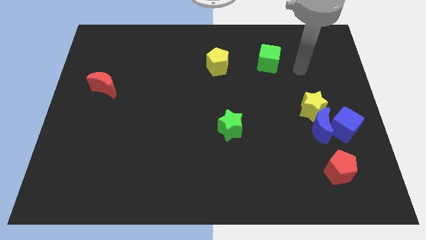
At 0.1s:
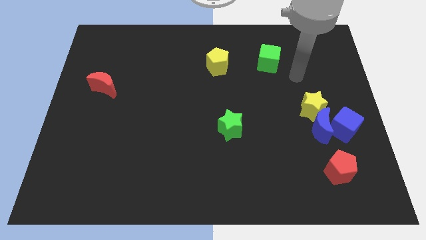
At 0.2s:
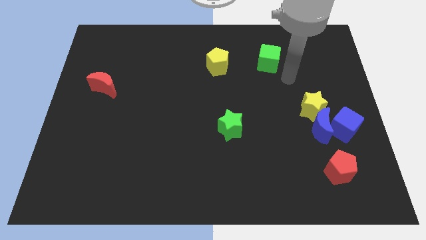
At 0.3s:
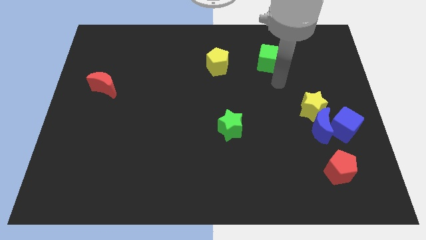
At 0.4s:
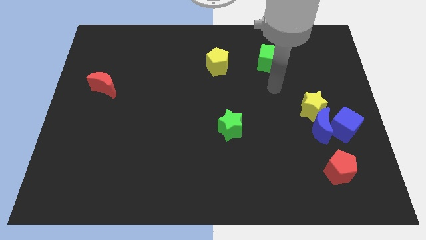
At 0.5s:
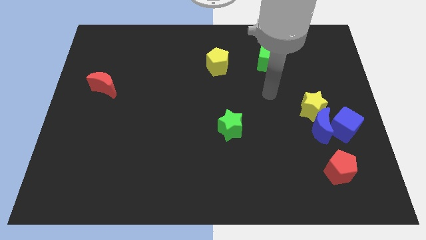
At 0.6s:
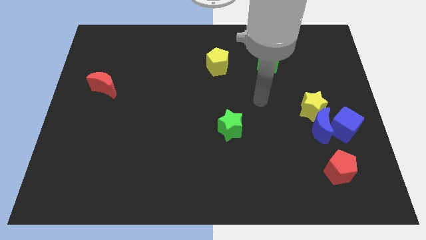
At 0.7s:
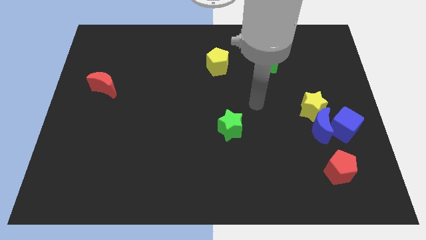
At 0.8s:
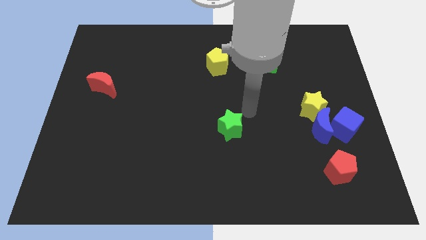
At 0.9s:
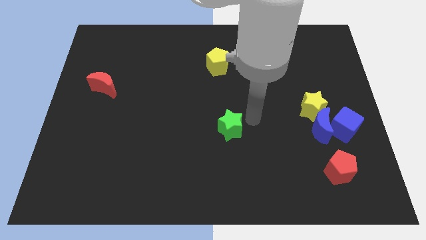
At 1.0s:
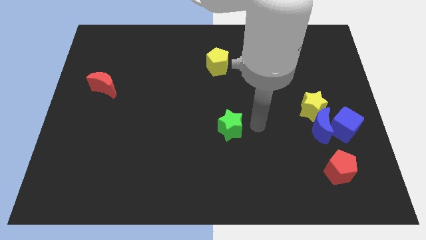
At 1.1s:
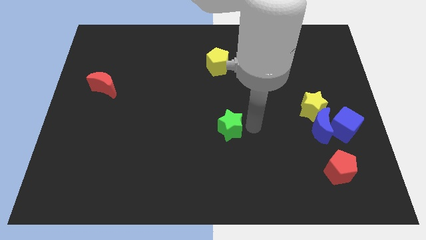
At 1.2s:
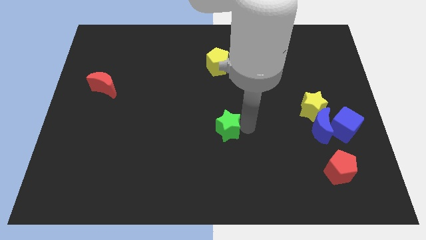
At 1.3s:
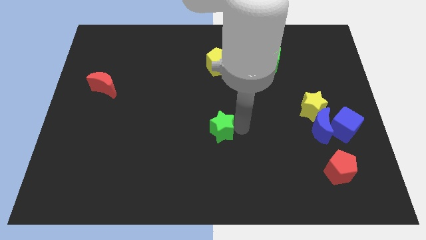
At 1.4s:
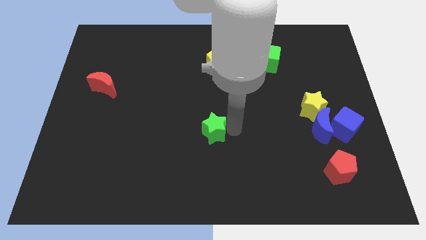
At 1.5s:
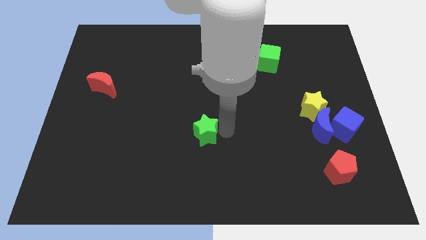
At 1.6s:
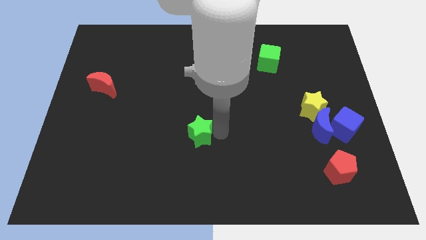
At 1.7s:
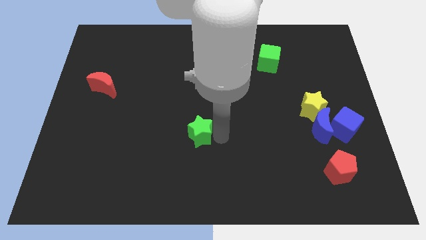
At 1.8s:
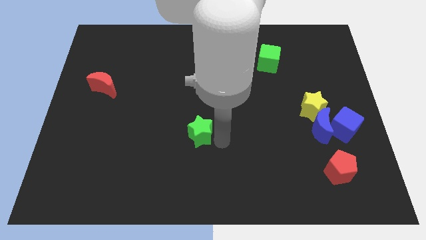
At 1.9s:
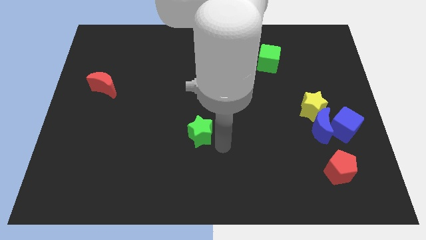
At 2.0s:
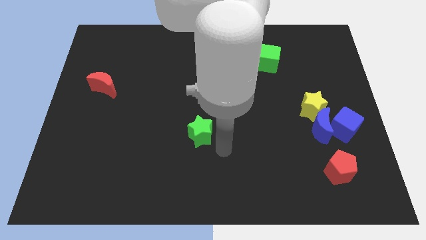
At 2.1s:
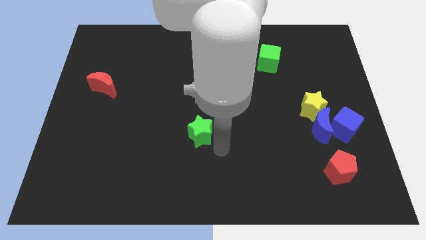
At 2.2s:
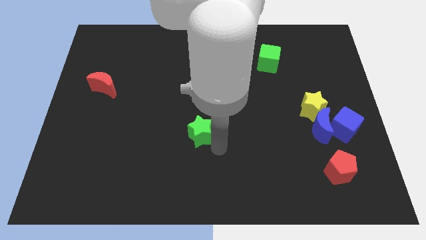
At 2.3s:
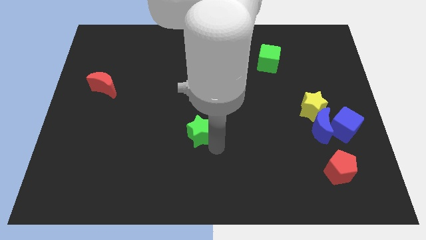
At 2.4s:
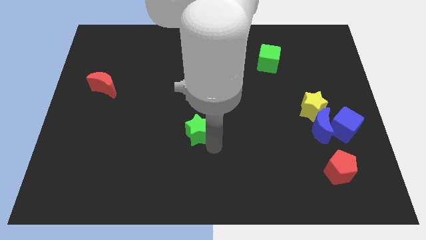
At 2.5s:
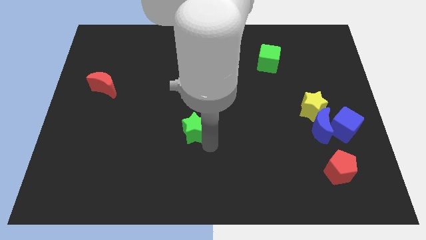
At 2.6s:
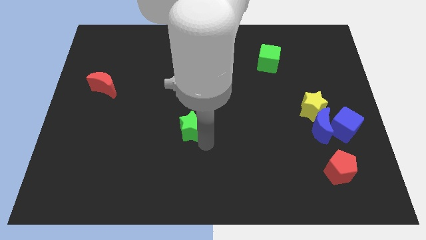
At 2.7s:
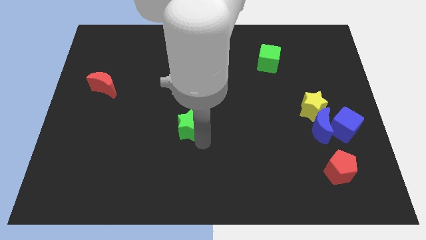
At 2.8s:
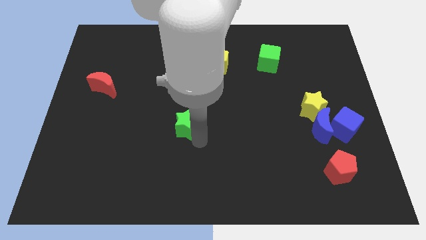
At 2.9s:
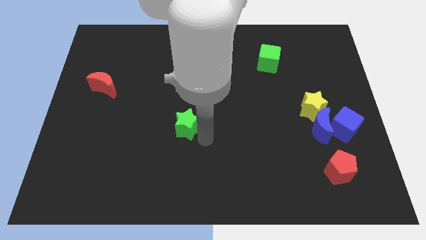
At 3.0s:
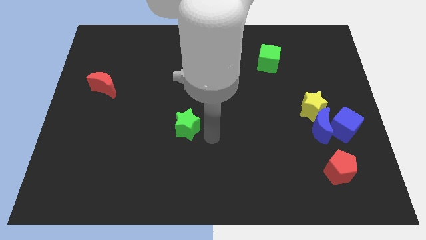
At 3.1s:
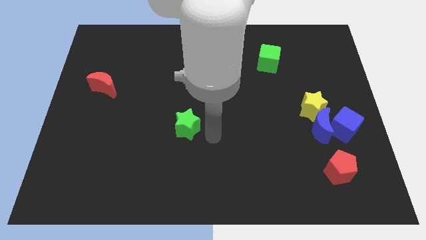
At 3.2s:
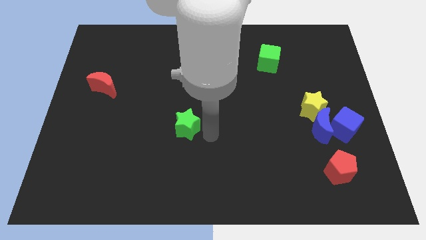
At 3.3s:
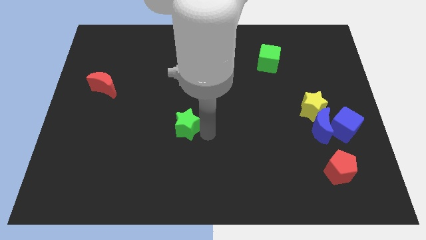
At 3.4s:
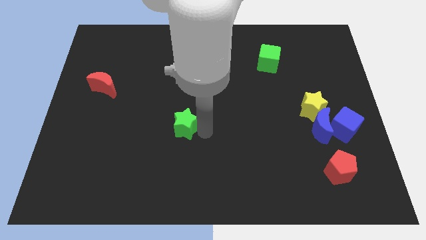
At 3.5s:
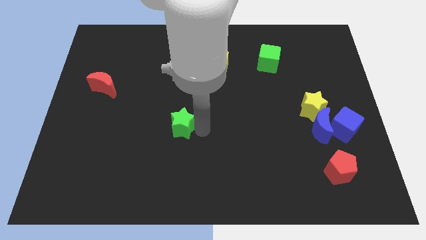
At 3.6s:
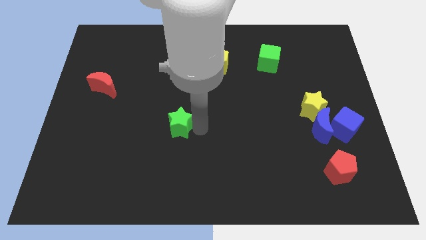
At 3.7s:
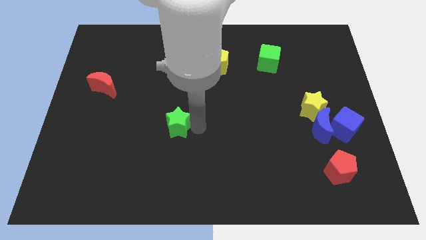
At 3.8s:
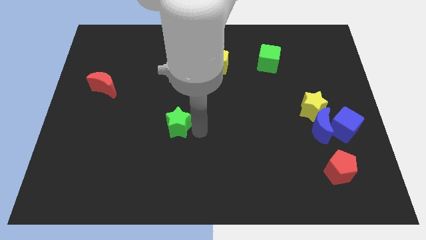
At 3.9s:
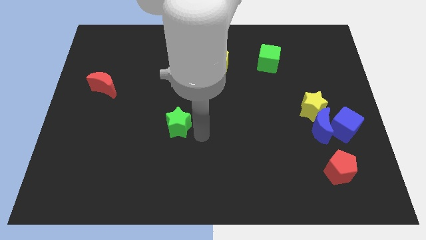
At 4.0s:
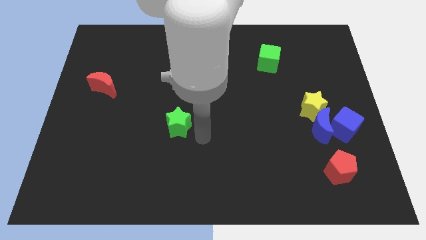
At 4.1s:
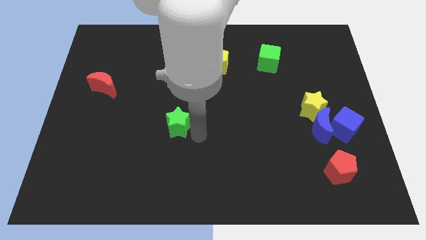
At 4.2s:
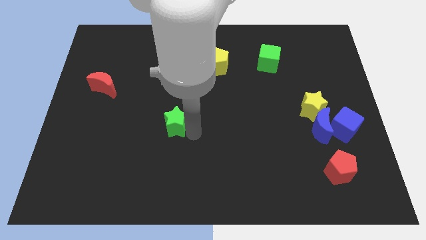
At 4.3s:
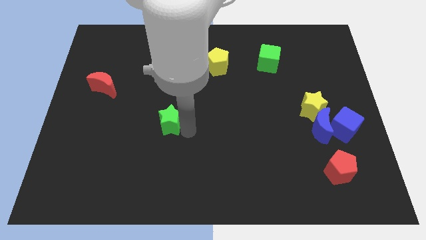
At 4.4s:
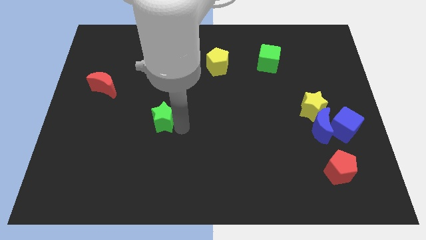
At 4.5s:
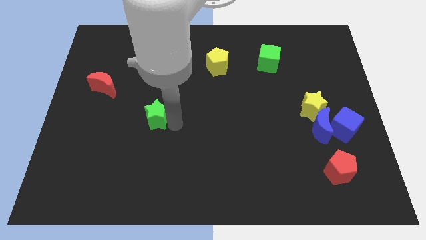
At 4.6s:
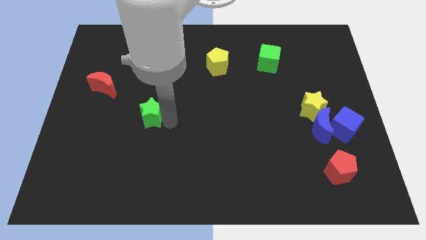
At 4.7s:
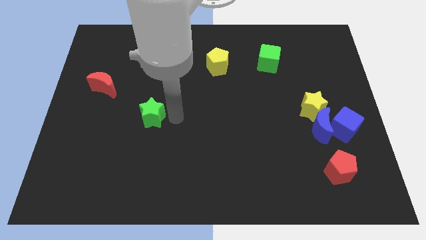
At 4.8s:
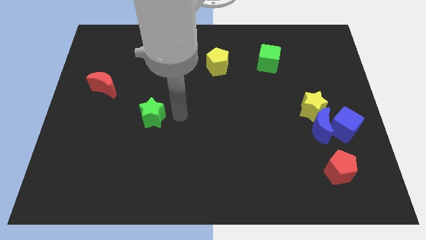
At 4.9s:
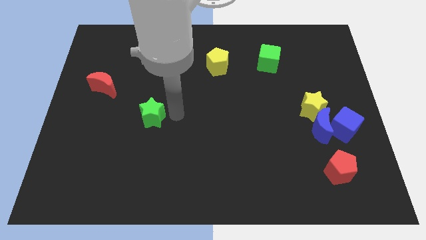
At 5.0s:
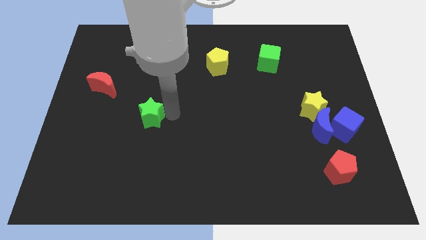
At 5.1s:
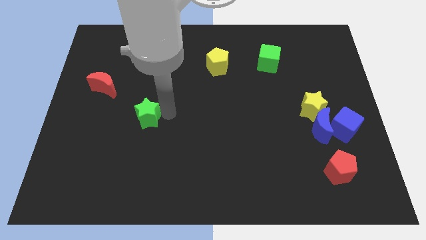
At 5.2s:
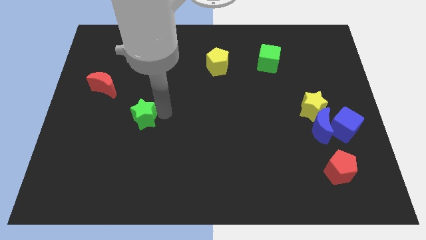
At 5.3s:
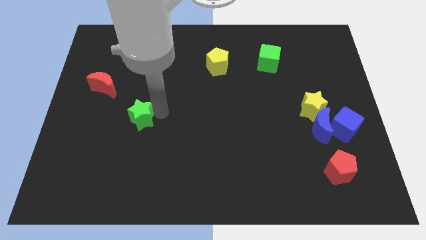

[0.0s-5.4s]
push the green star left

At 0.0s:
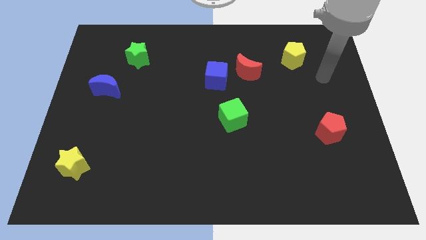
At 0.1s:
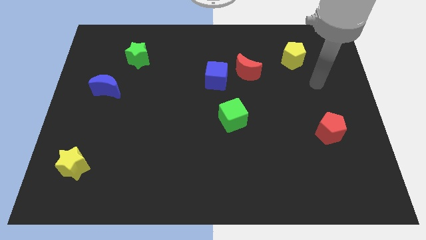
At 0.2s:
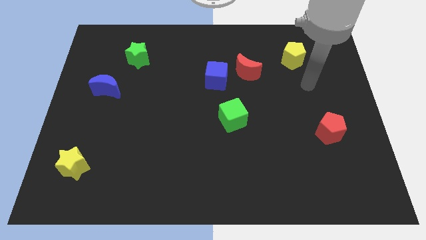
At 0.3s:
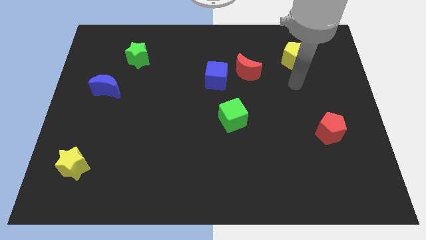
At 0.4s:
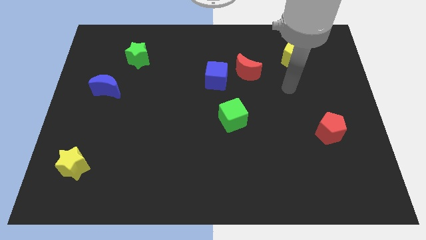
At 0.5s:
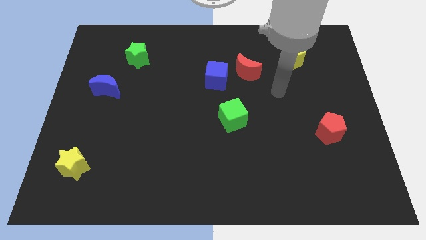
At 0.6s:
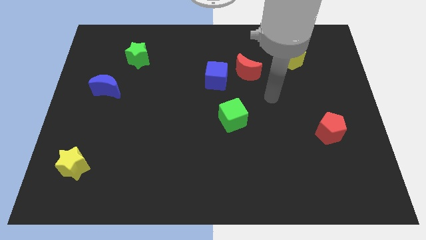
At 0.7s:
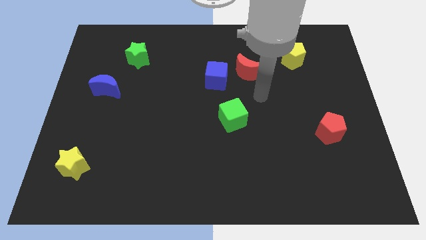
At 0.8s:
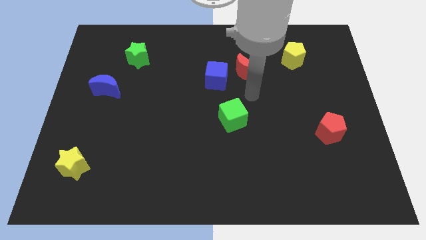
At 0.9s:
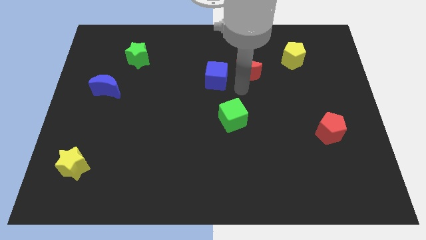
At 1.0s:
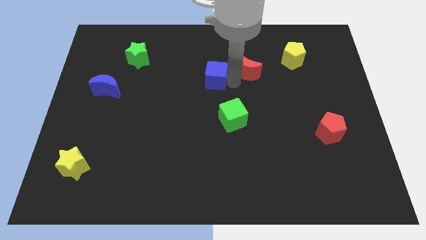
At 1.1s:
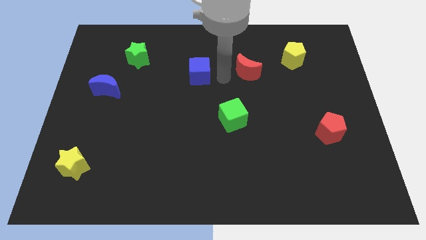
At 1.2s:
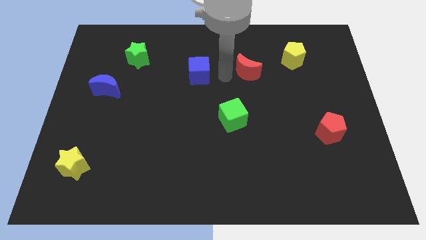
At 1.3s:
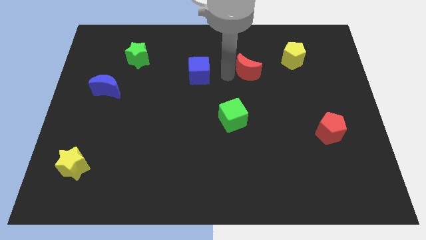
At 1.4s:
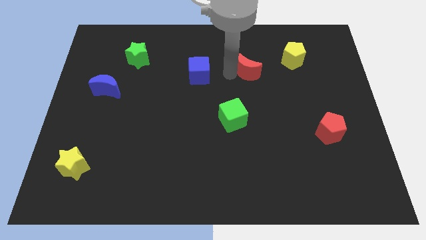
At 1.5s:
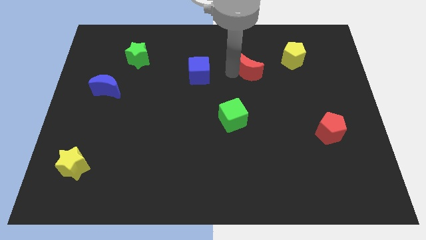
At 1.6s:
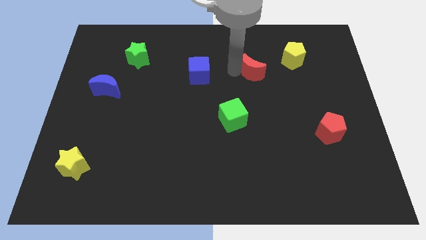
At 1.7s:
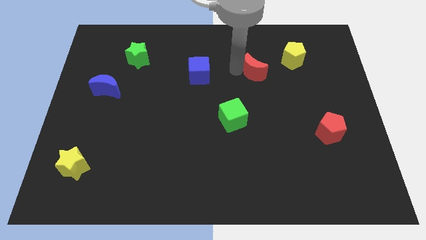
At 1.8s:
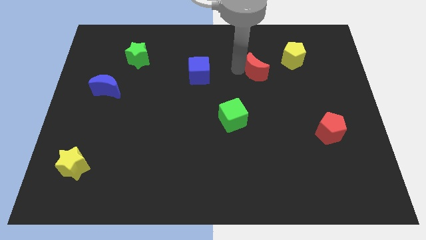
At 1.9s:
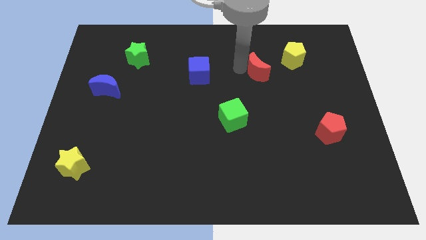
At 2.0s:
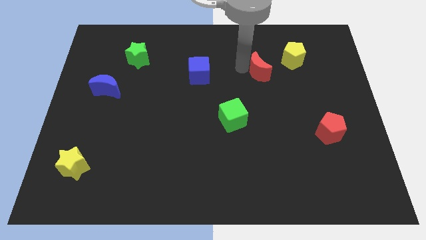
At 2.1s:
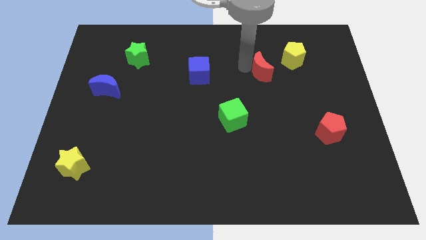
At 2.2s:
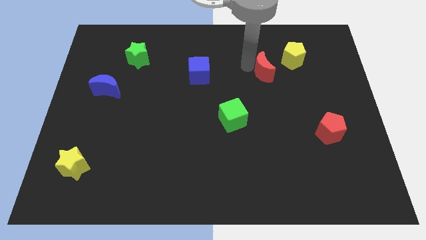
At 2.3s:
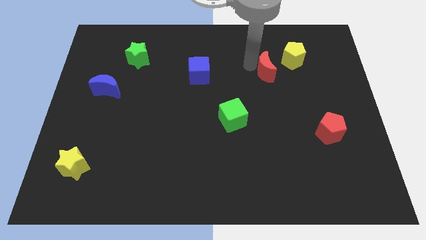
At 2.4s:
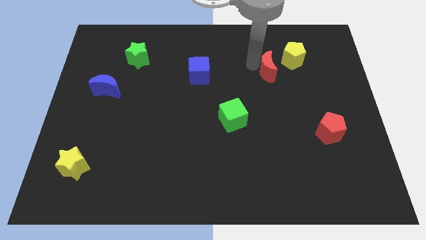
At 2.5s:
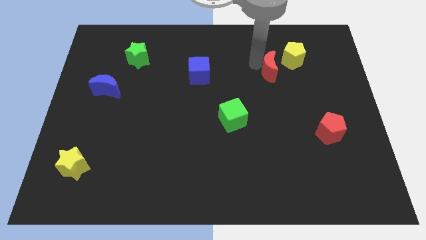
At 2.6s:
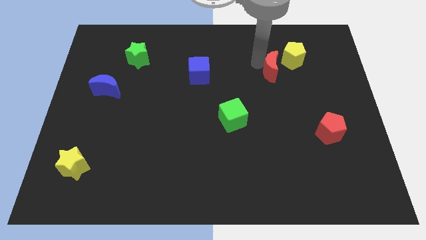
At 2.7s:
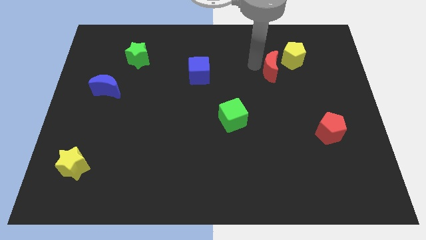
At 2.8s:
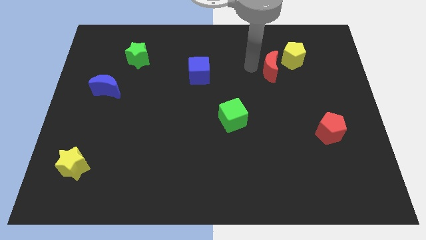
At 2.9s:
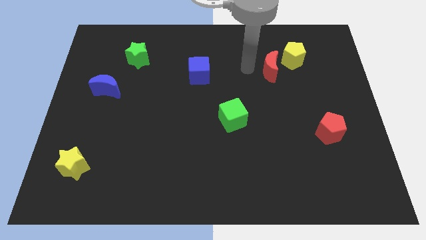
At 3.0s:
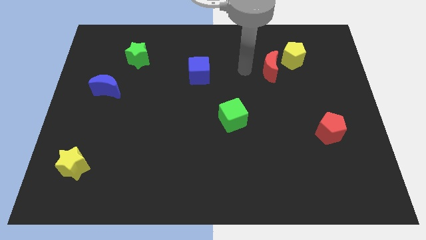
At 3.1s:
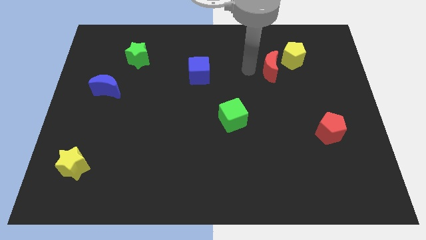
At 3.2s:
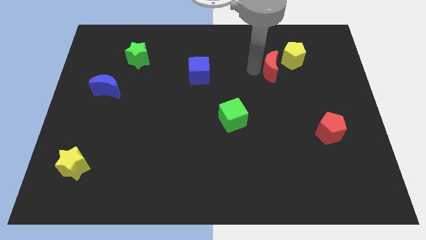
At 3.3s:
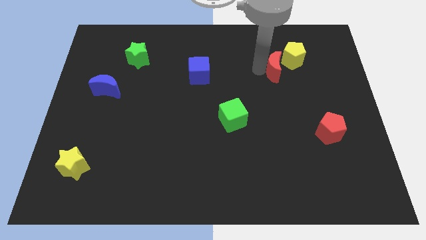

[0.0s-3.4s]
slightly slide the red moon right
